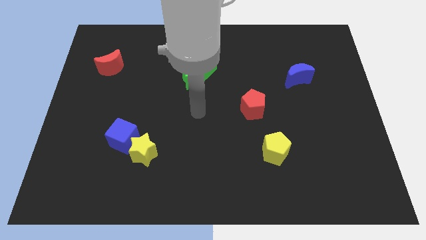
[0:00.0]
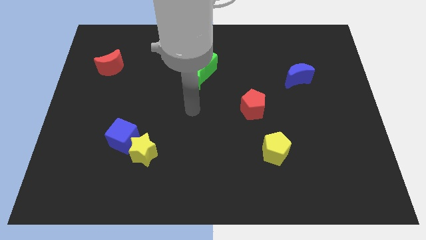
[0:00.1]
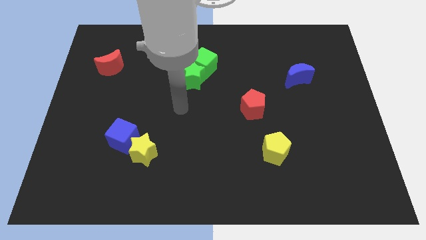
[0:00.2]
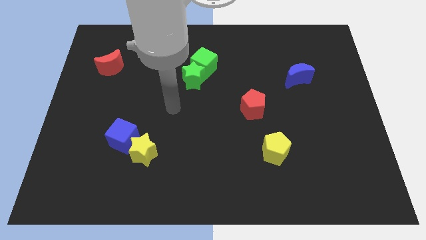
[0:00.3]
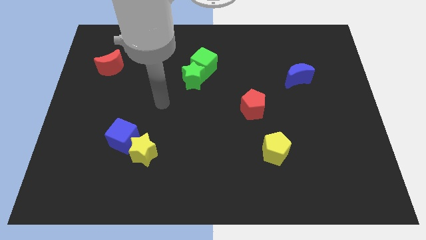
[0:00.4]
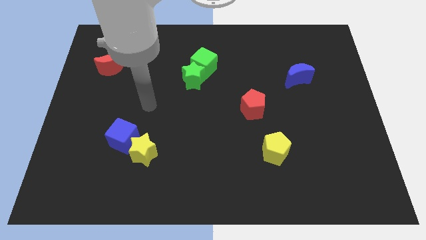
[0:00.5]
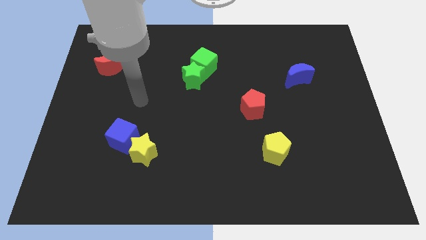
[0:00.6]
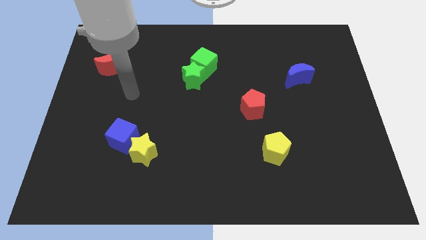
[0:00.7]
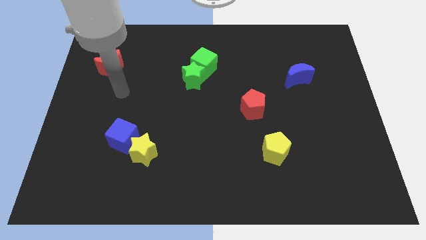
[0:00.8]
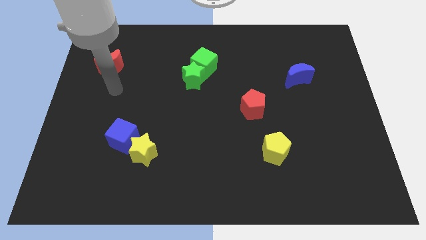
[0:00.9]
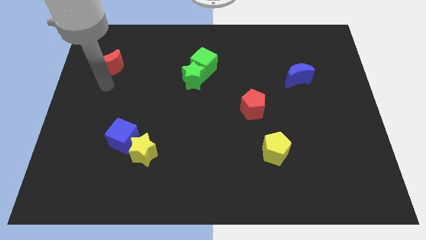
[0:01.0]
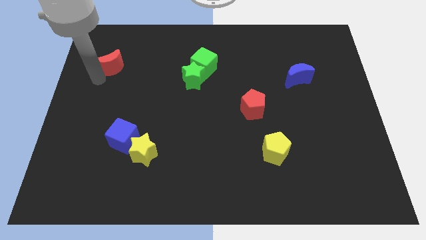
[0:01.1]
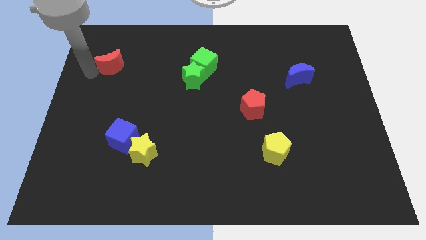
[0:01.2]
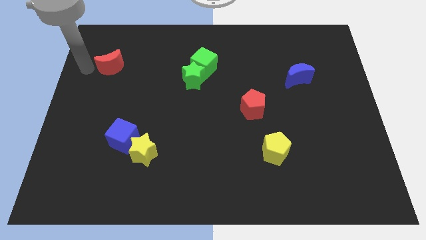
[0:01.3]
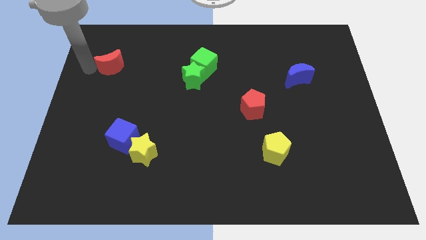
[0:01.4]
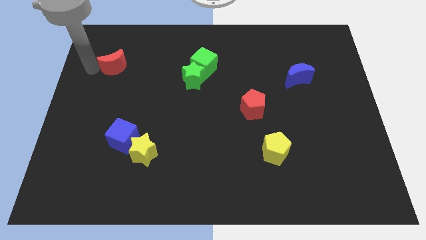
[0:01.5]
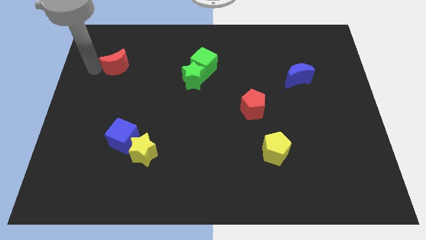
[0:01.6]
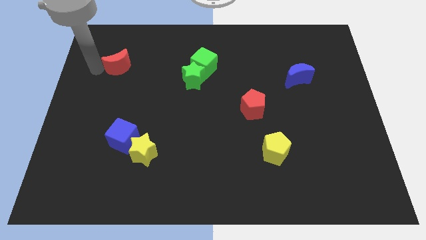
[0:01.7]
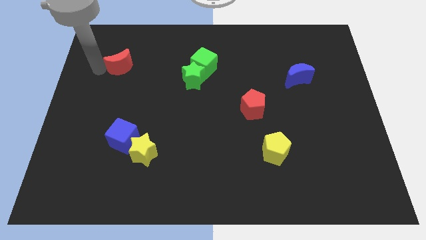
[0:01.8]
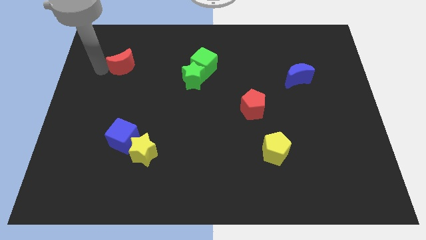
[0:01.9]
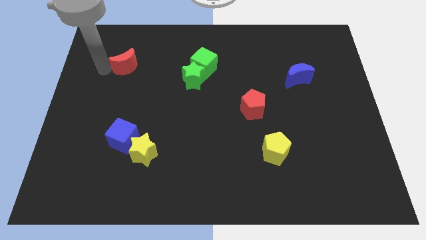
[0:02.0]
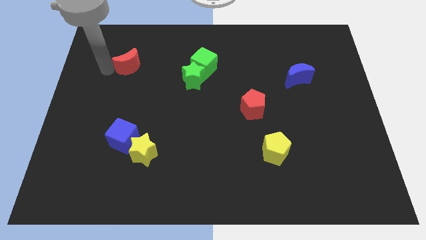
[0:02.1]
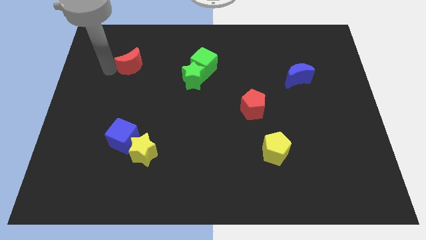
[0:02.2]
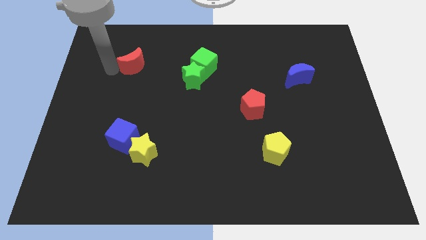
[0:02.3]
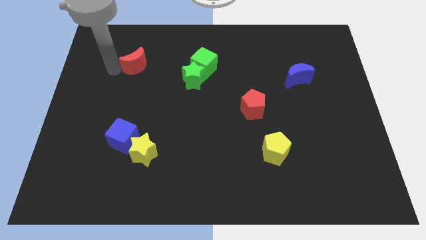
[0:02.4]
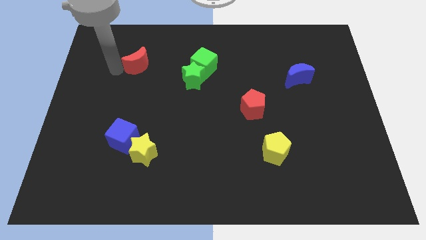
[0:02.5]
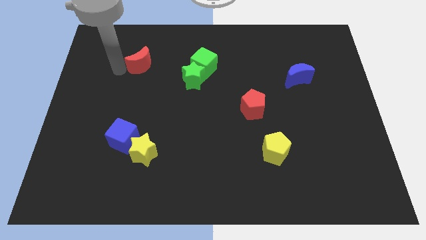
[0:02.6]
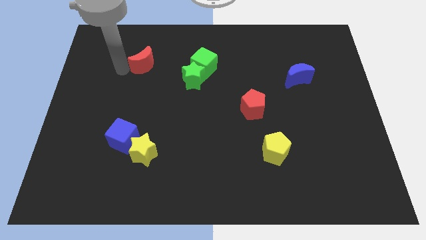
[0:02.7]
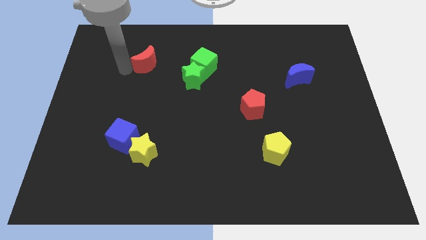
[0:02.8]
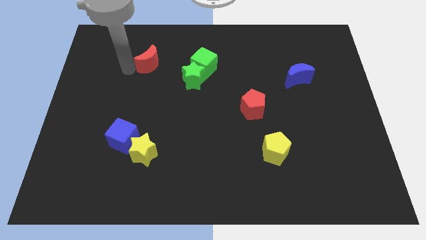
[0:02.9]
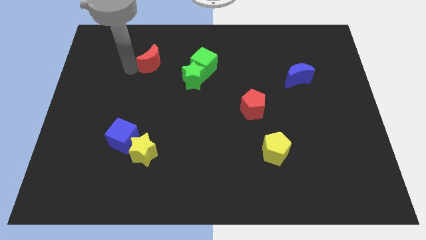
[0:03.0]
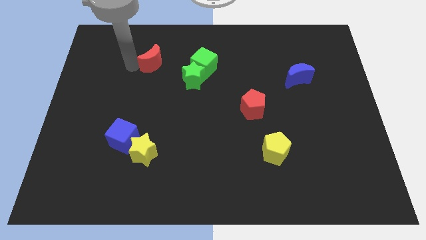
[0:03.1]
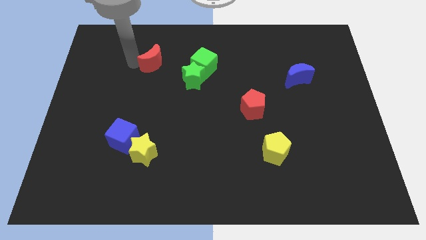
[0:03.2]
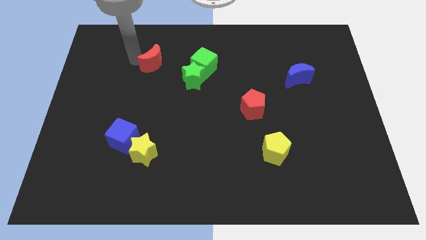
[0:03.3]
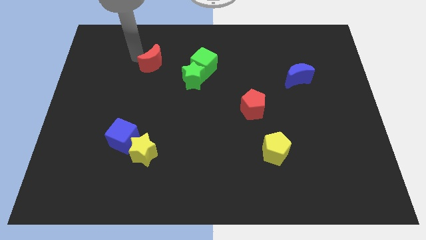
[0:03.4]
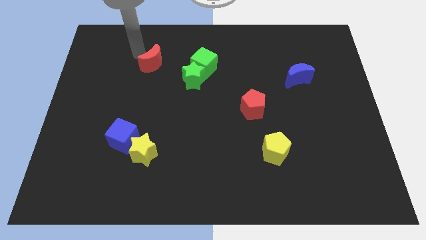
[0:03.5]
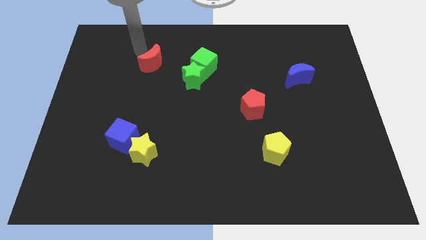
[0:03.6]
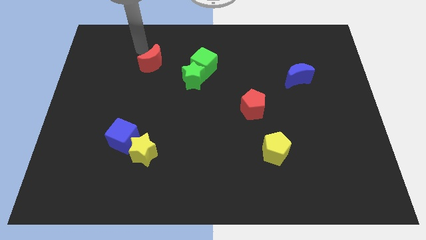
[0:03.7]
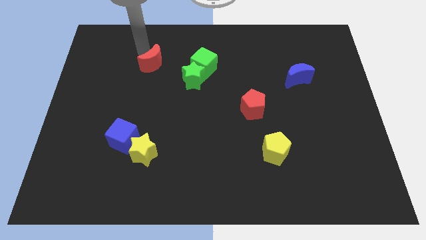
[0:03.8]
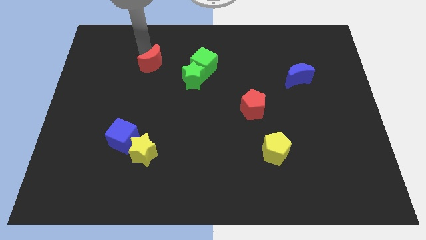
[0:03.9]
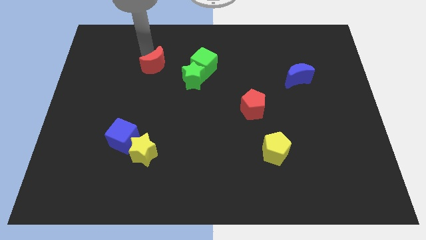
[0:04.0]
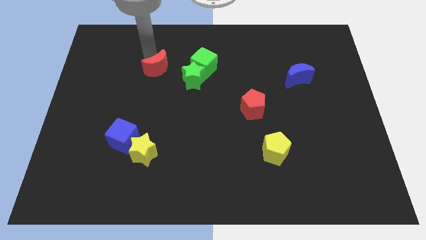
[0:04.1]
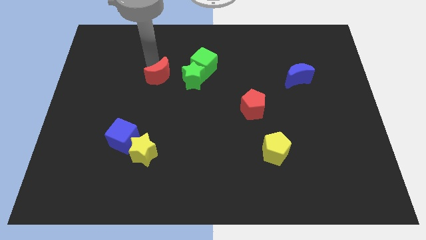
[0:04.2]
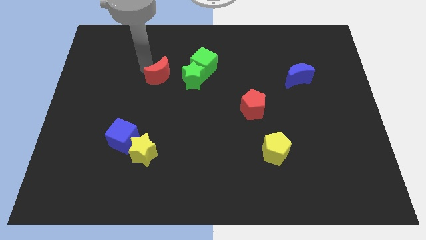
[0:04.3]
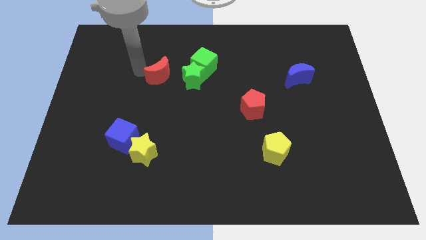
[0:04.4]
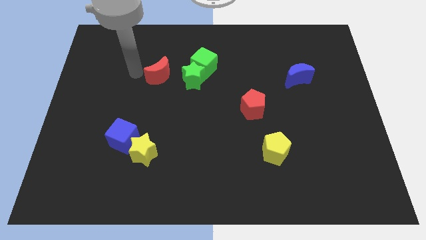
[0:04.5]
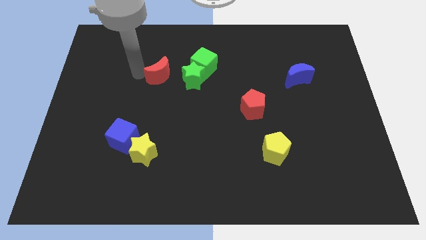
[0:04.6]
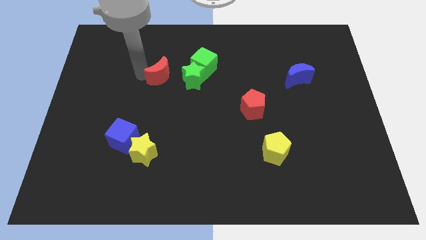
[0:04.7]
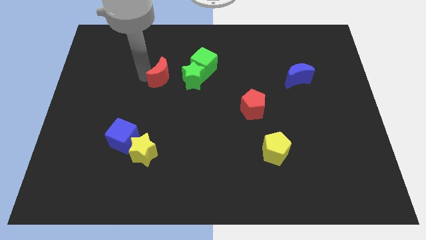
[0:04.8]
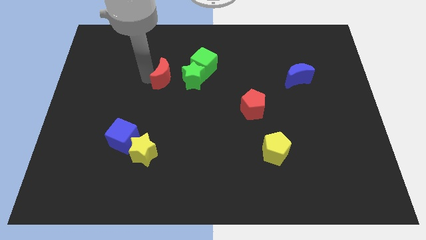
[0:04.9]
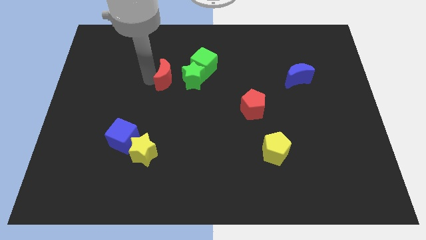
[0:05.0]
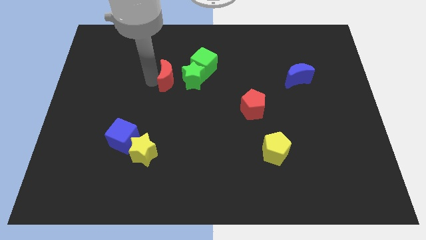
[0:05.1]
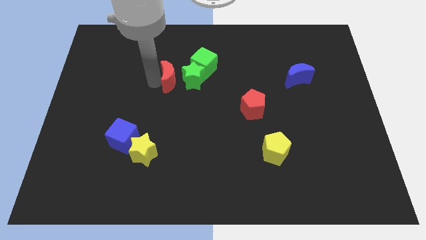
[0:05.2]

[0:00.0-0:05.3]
move the red moon close to the green star

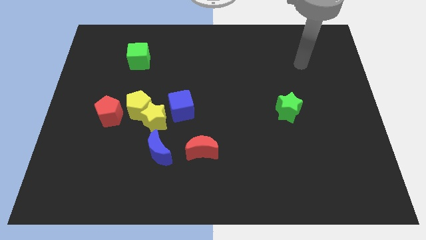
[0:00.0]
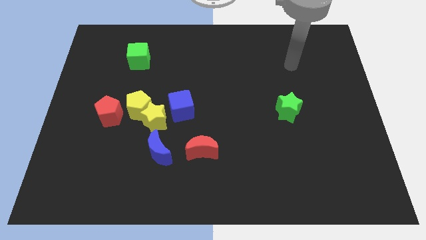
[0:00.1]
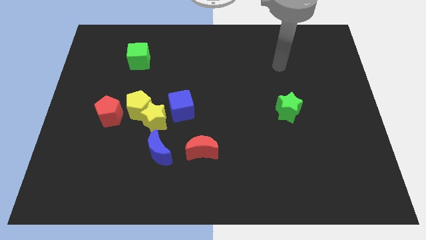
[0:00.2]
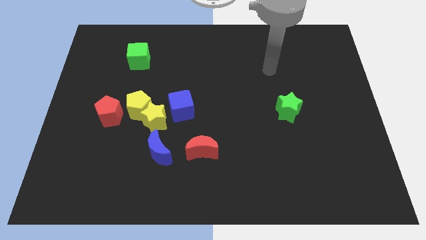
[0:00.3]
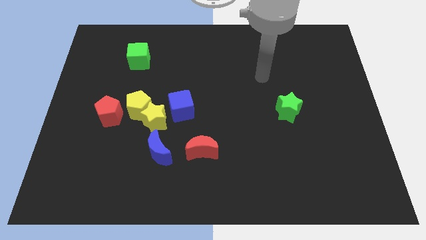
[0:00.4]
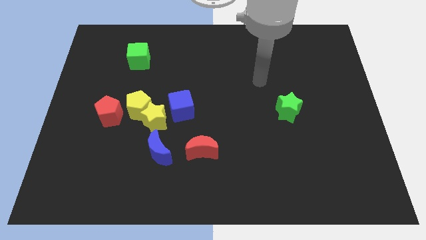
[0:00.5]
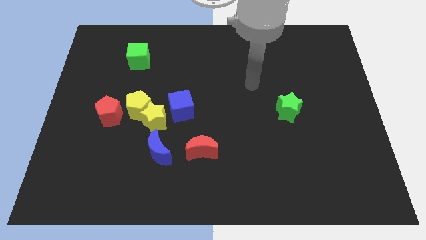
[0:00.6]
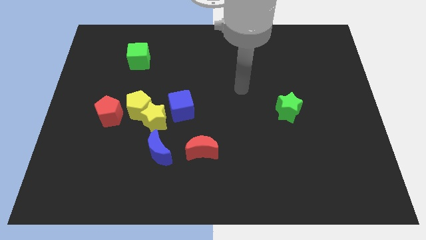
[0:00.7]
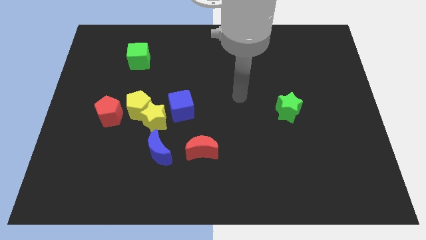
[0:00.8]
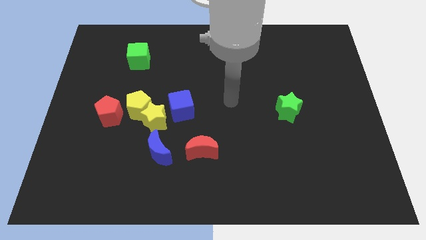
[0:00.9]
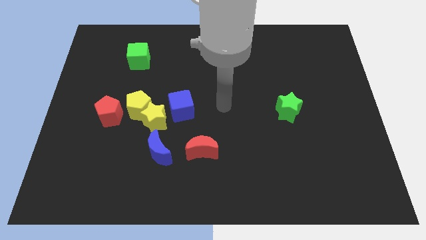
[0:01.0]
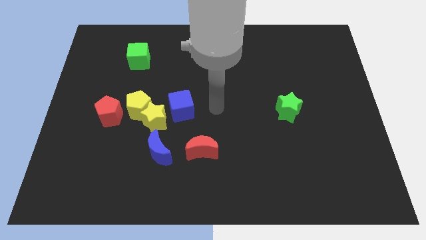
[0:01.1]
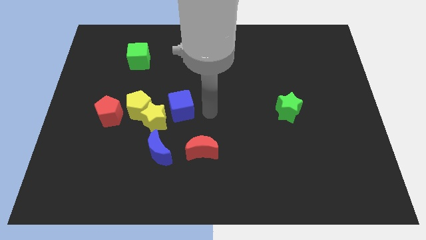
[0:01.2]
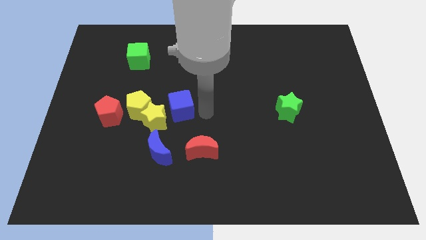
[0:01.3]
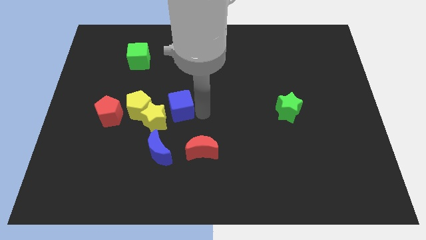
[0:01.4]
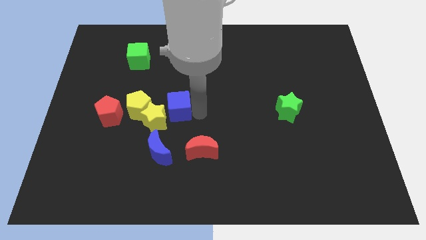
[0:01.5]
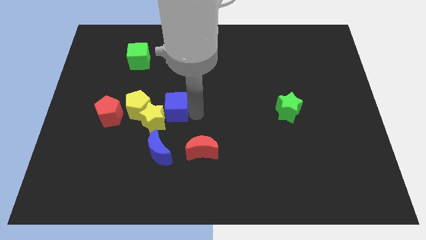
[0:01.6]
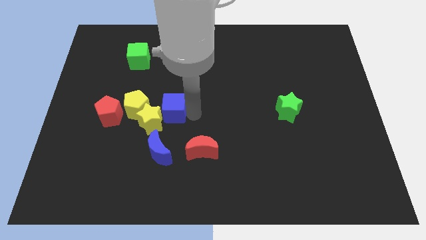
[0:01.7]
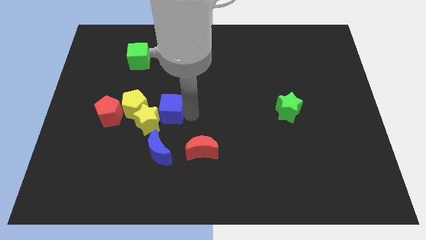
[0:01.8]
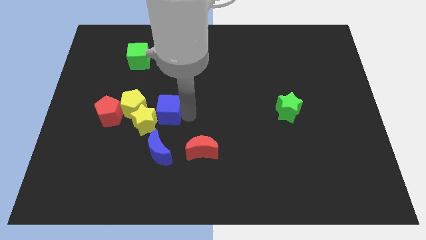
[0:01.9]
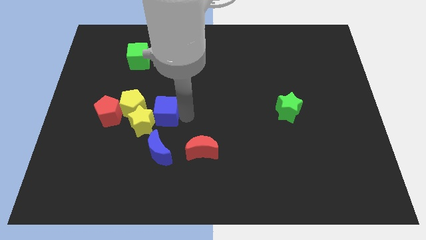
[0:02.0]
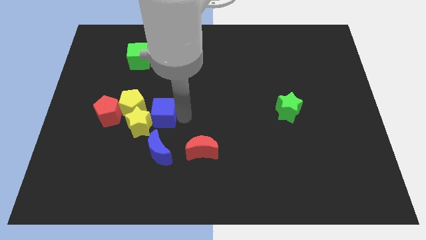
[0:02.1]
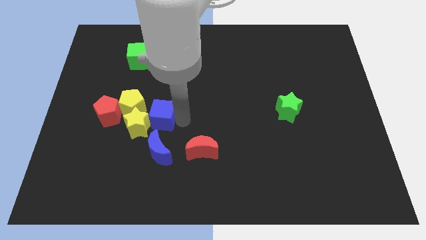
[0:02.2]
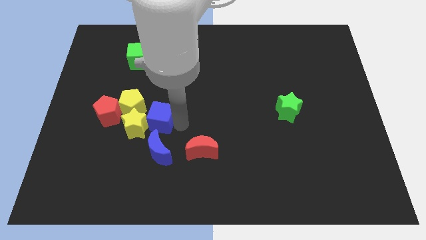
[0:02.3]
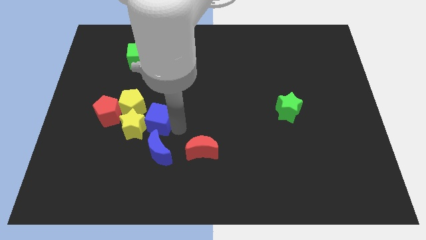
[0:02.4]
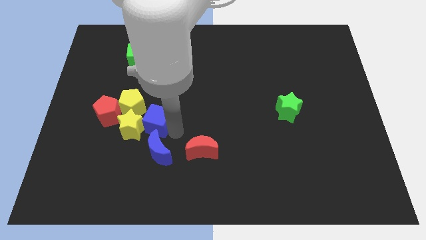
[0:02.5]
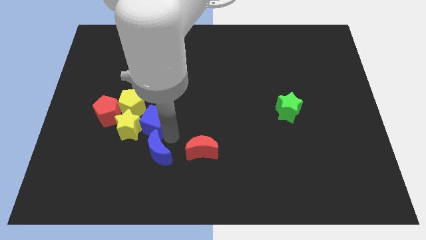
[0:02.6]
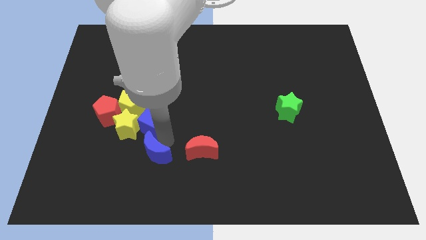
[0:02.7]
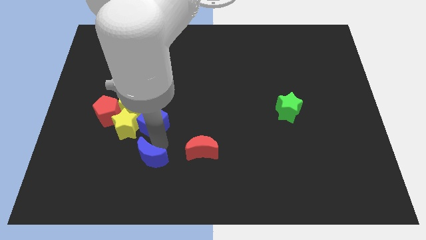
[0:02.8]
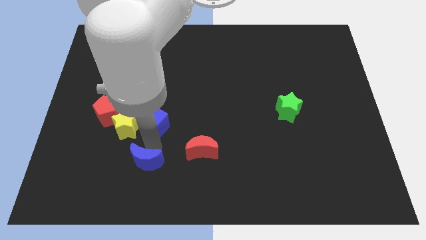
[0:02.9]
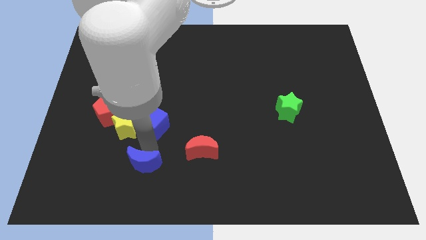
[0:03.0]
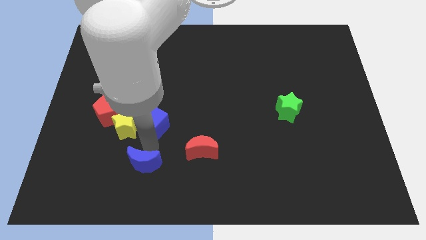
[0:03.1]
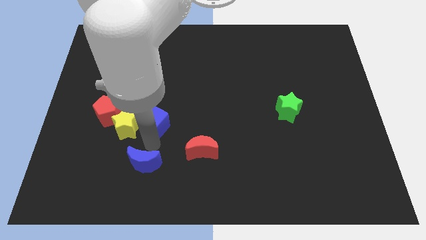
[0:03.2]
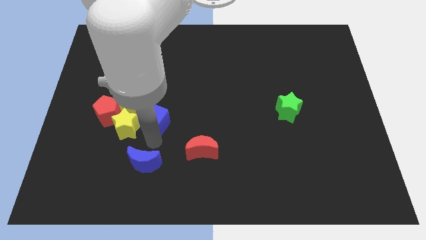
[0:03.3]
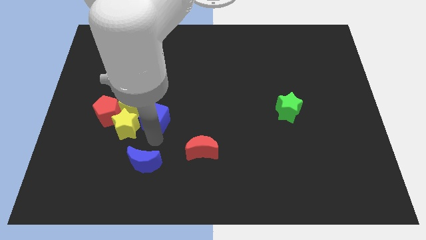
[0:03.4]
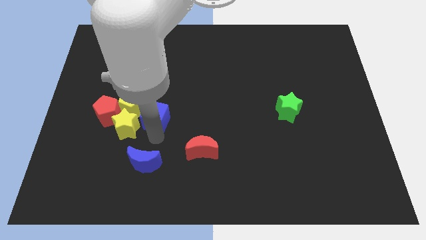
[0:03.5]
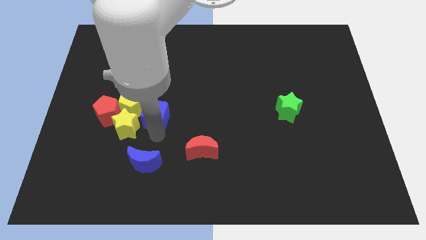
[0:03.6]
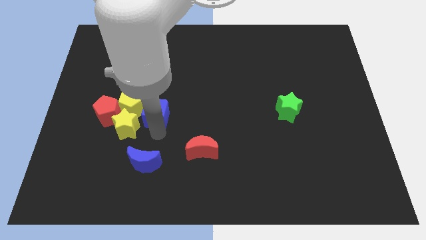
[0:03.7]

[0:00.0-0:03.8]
put the blue cube close to the yellow pentagon
